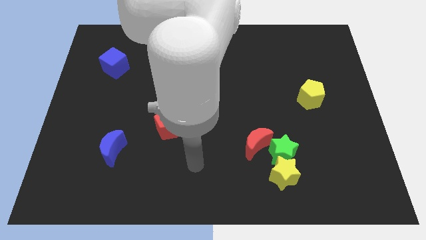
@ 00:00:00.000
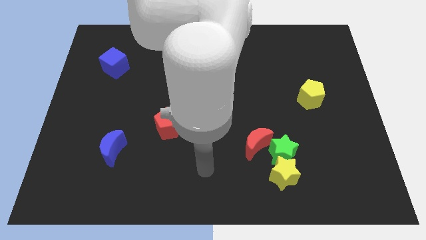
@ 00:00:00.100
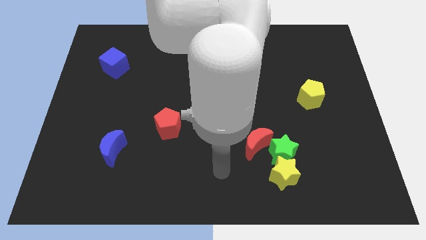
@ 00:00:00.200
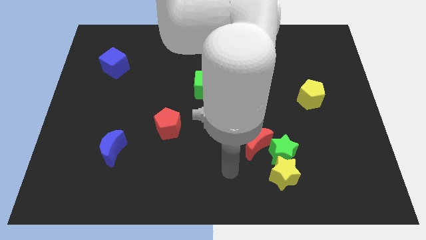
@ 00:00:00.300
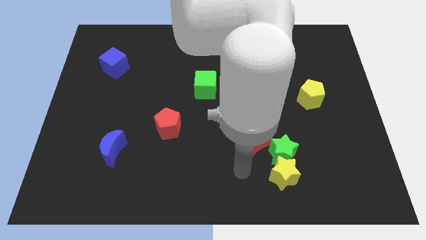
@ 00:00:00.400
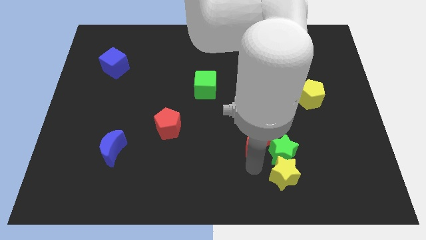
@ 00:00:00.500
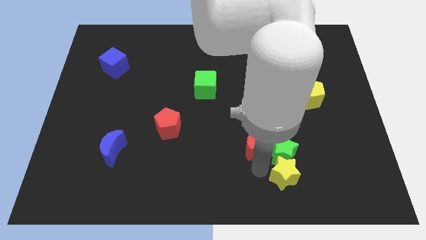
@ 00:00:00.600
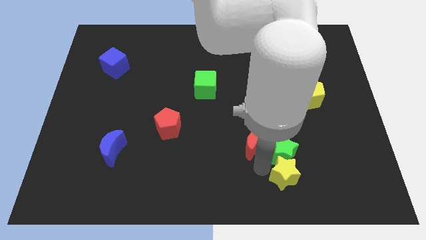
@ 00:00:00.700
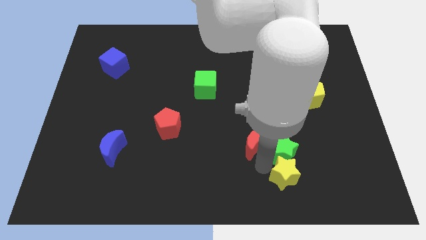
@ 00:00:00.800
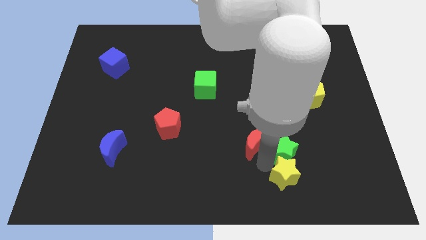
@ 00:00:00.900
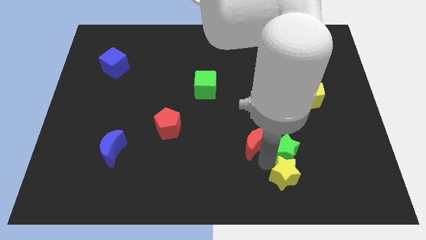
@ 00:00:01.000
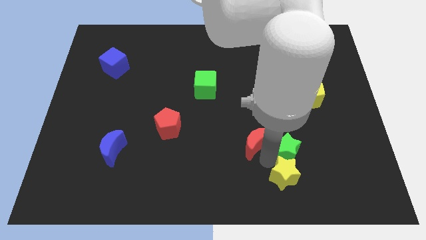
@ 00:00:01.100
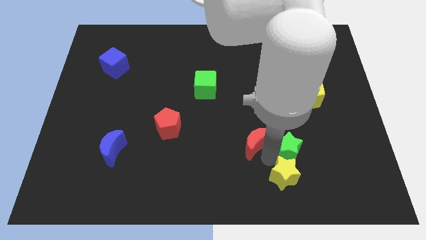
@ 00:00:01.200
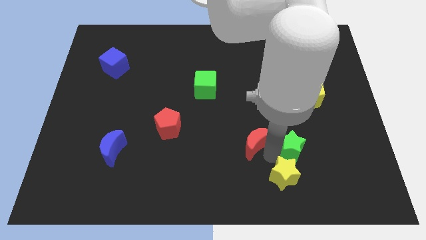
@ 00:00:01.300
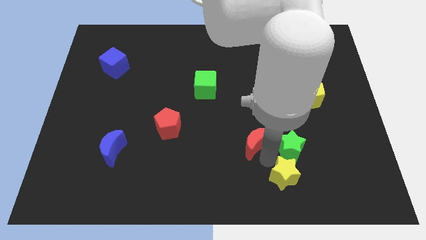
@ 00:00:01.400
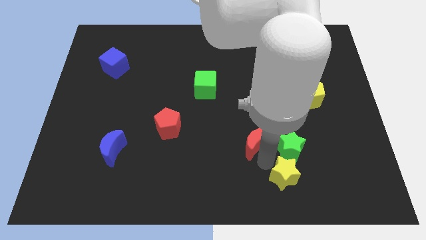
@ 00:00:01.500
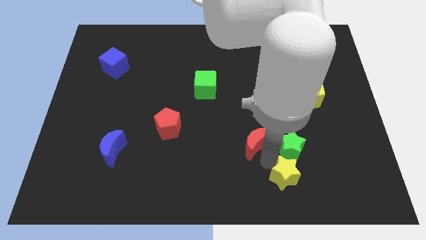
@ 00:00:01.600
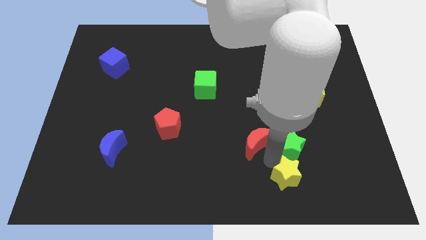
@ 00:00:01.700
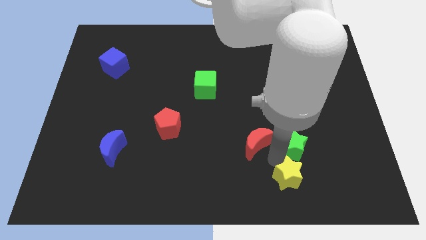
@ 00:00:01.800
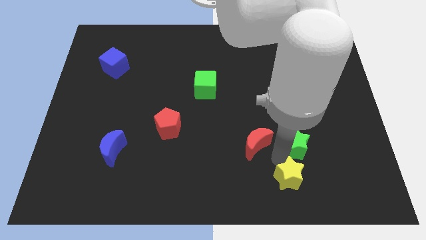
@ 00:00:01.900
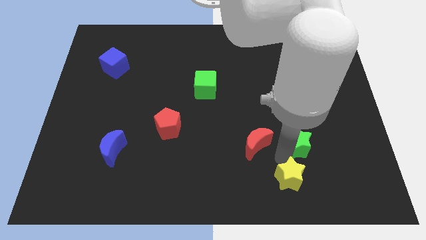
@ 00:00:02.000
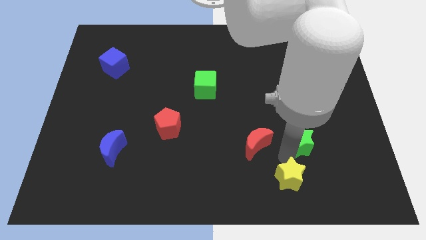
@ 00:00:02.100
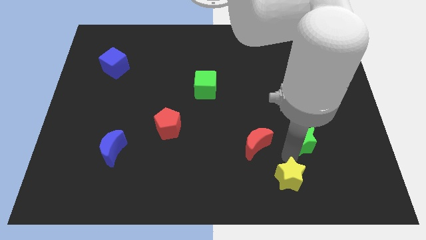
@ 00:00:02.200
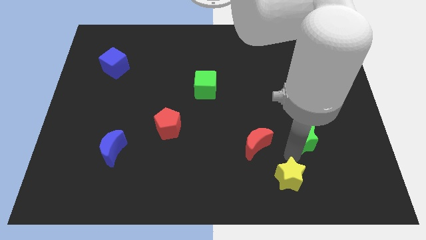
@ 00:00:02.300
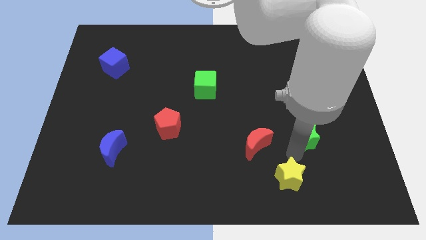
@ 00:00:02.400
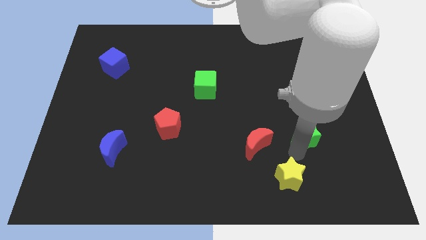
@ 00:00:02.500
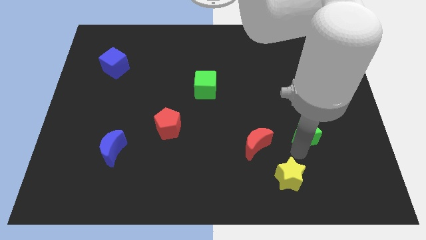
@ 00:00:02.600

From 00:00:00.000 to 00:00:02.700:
separate the green star from the yellow star and red moon

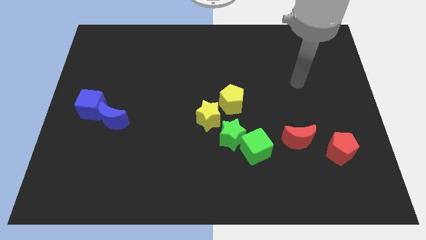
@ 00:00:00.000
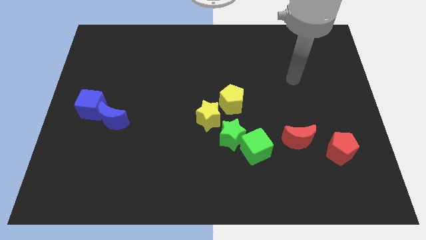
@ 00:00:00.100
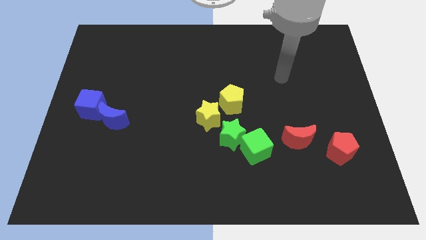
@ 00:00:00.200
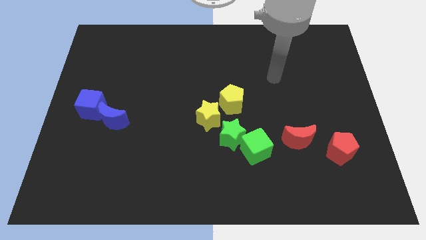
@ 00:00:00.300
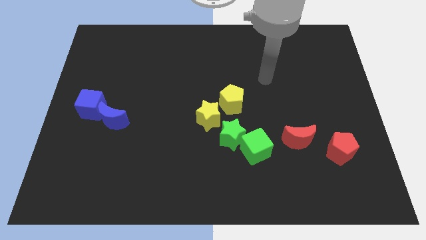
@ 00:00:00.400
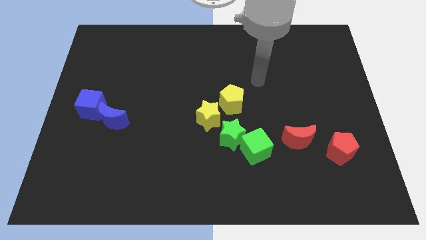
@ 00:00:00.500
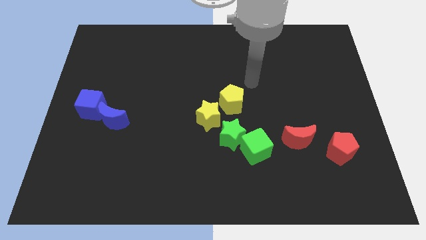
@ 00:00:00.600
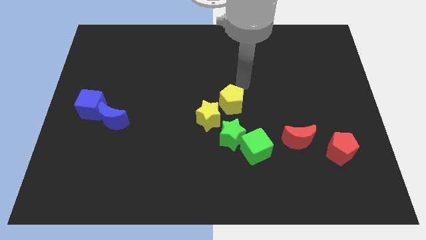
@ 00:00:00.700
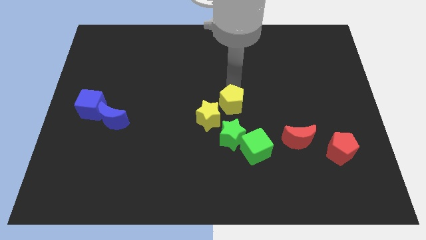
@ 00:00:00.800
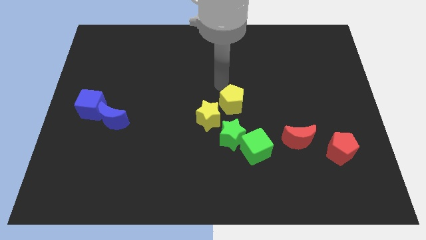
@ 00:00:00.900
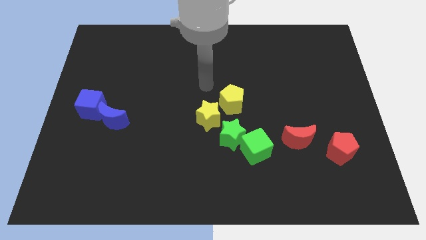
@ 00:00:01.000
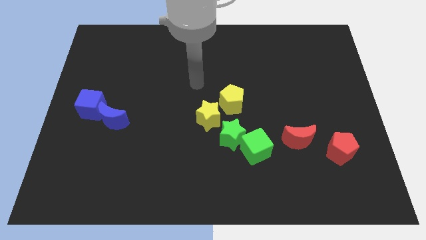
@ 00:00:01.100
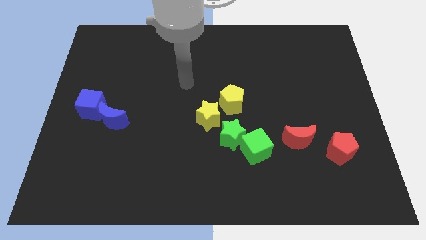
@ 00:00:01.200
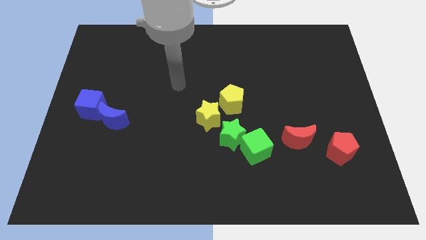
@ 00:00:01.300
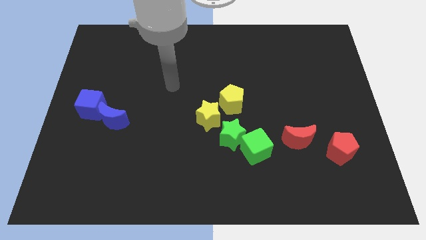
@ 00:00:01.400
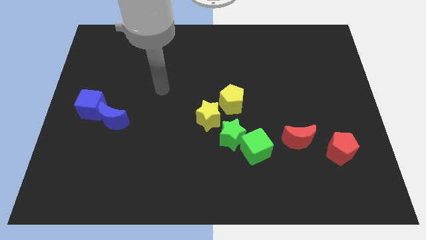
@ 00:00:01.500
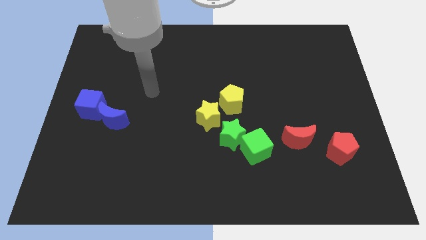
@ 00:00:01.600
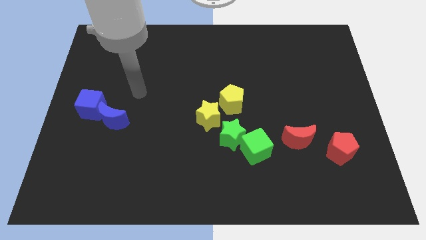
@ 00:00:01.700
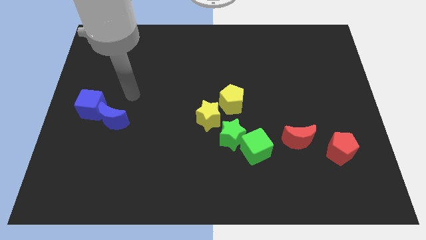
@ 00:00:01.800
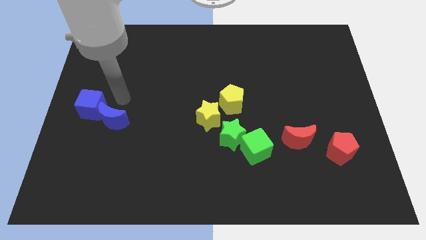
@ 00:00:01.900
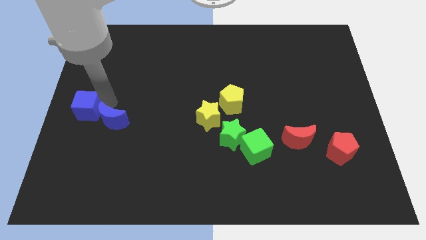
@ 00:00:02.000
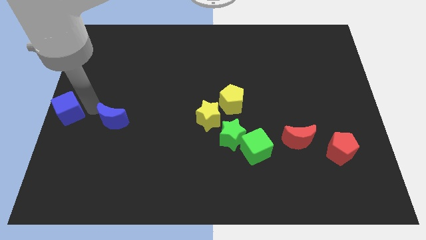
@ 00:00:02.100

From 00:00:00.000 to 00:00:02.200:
separate the blue moon from the blue cube

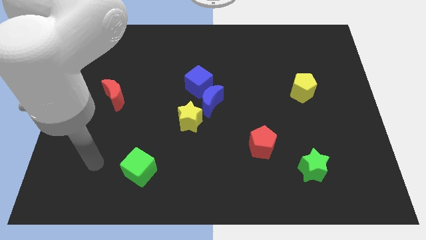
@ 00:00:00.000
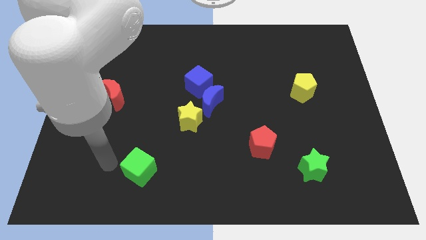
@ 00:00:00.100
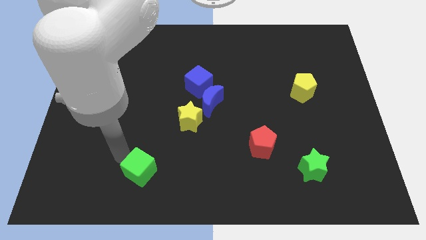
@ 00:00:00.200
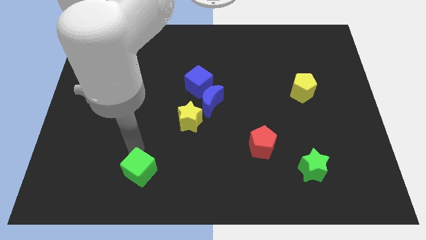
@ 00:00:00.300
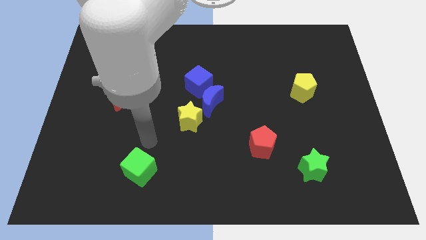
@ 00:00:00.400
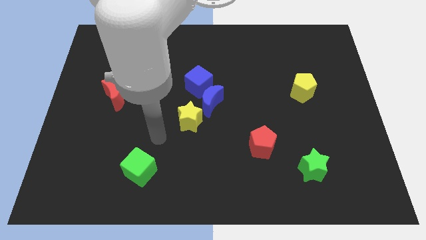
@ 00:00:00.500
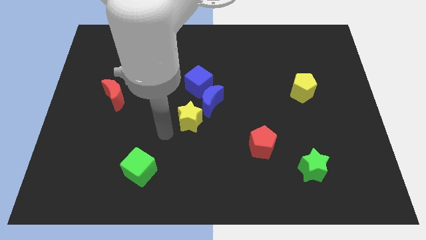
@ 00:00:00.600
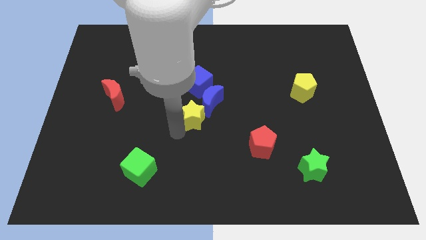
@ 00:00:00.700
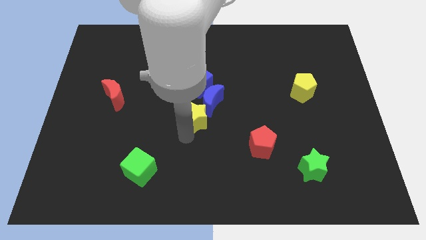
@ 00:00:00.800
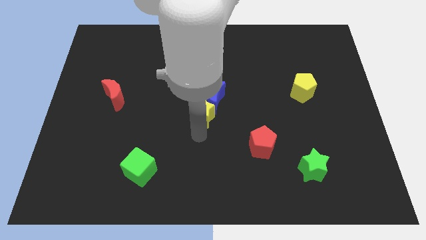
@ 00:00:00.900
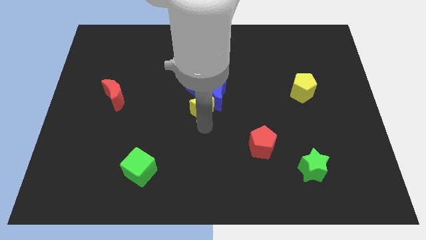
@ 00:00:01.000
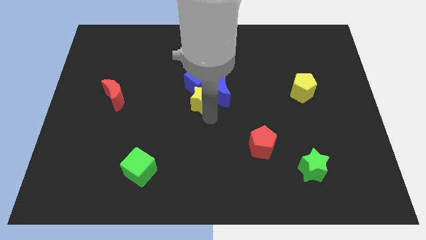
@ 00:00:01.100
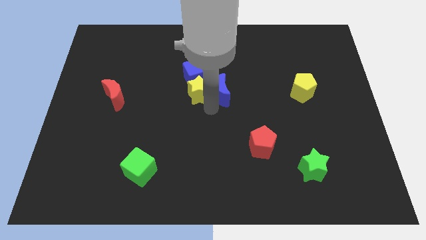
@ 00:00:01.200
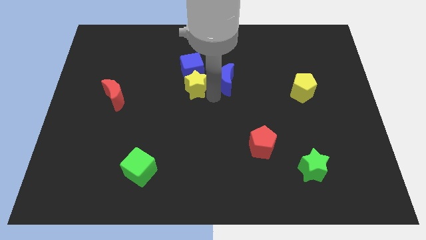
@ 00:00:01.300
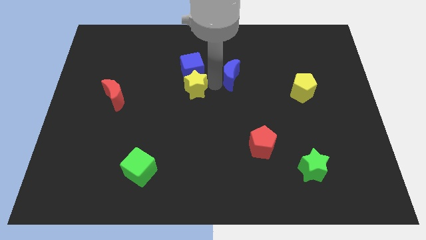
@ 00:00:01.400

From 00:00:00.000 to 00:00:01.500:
separate the blue cube from the blue moon

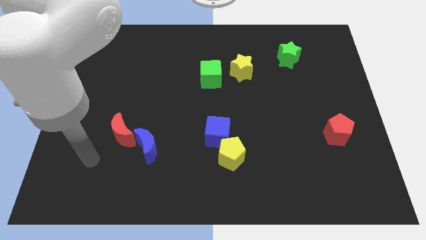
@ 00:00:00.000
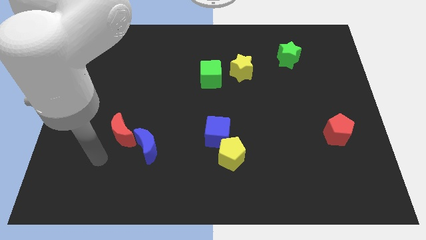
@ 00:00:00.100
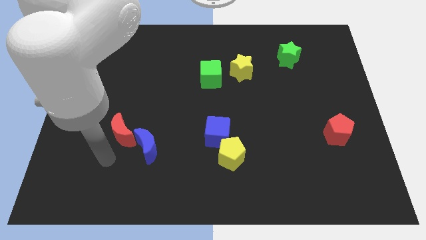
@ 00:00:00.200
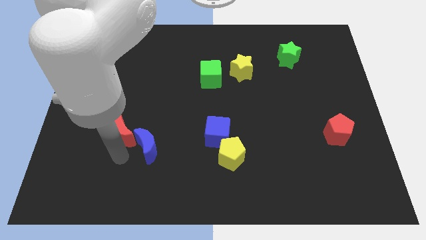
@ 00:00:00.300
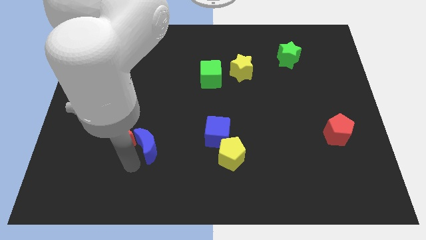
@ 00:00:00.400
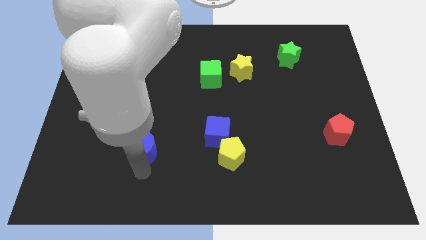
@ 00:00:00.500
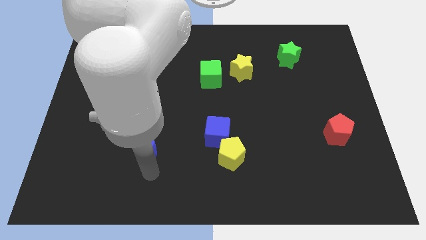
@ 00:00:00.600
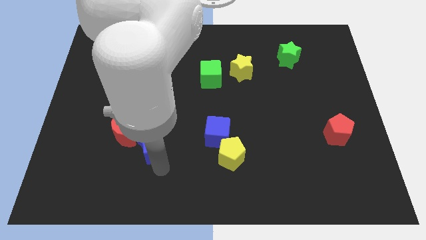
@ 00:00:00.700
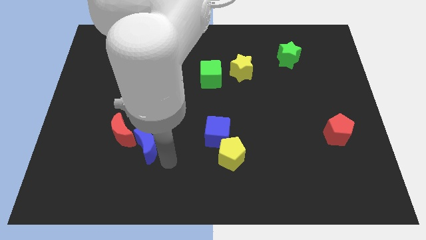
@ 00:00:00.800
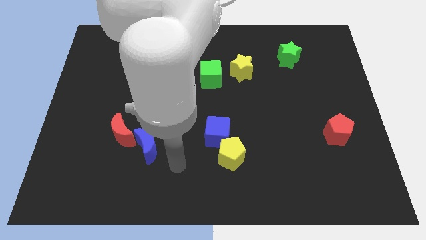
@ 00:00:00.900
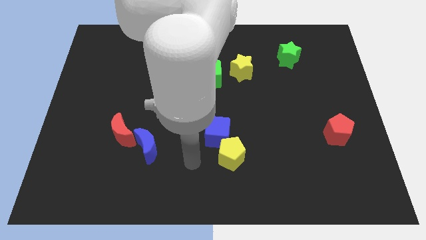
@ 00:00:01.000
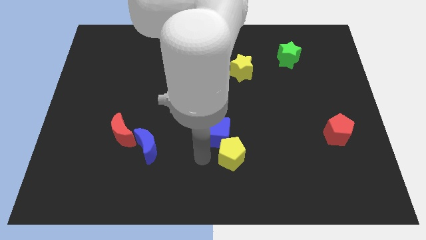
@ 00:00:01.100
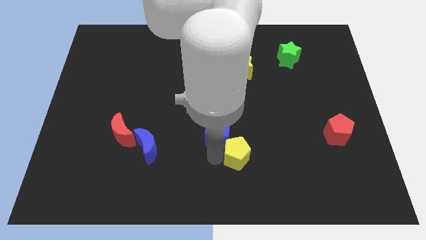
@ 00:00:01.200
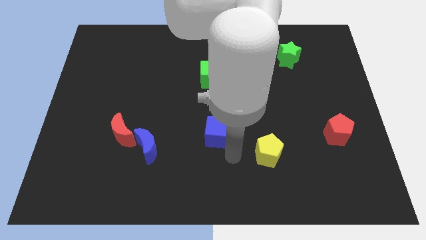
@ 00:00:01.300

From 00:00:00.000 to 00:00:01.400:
move the blue cube away from the yellow pentagon

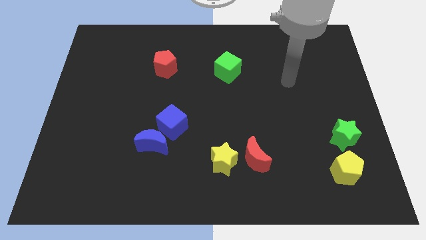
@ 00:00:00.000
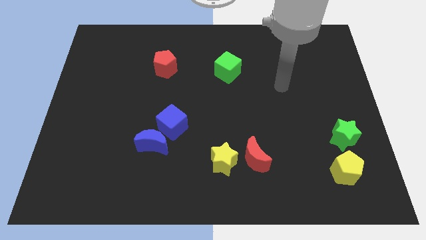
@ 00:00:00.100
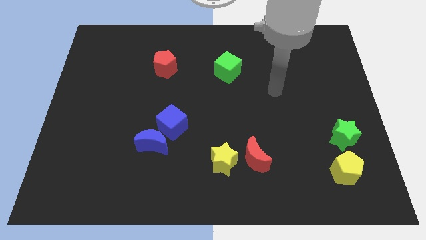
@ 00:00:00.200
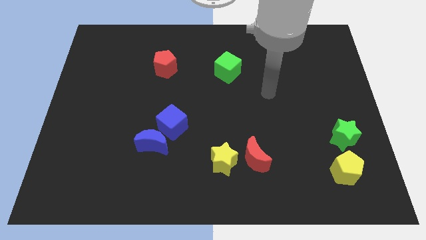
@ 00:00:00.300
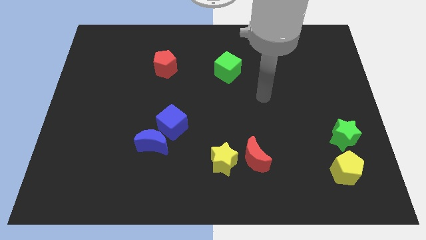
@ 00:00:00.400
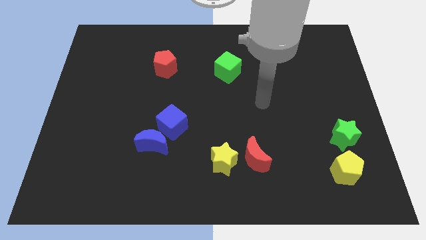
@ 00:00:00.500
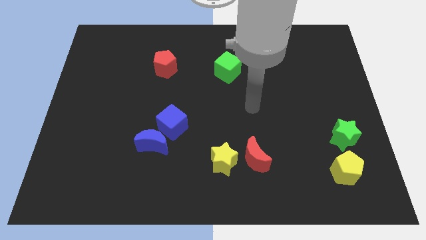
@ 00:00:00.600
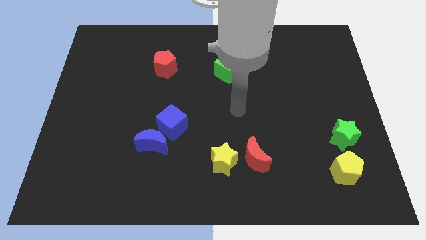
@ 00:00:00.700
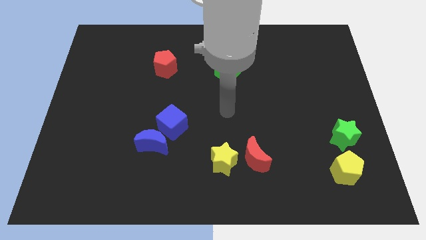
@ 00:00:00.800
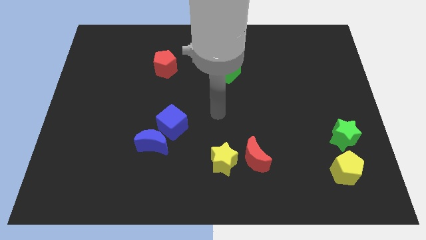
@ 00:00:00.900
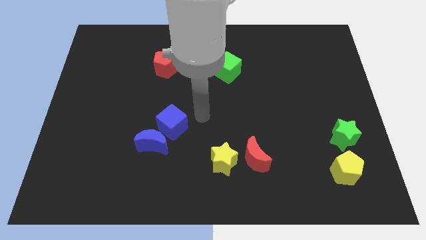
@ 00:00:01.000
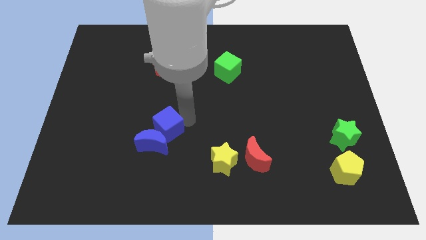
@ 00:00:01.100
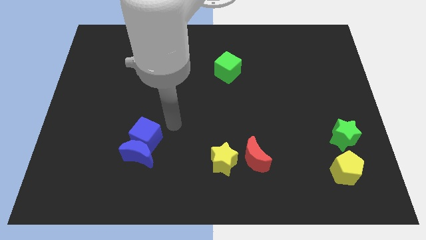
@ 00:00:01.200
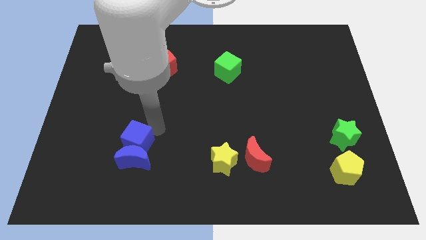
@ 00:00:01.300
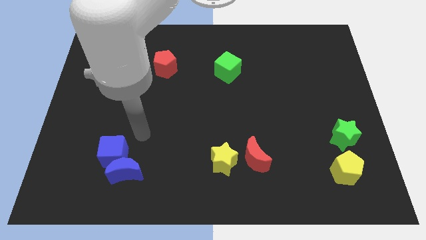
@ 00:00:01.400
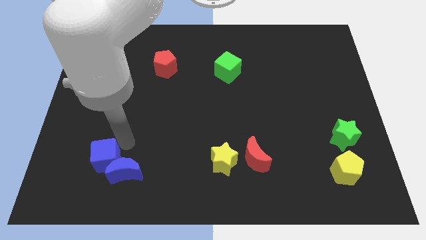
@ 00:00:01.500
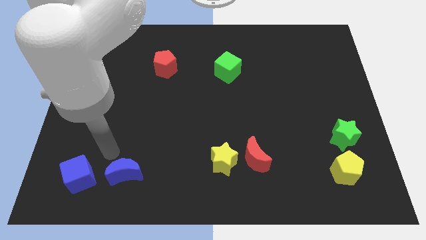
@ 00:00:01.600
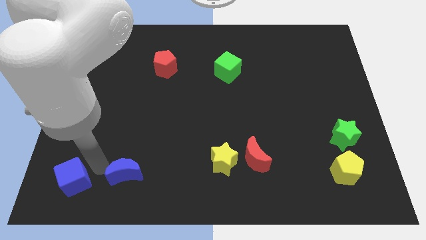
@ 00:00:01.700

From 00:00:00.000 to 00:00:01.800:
move the blue moon away from the blue cube
